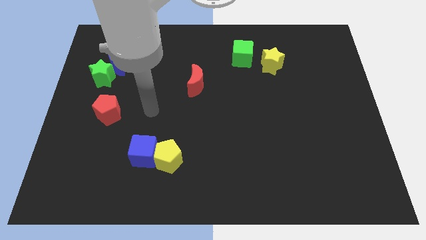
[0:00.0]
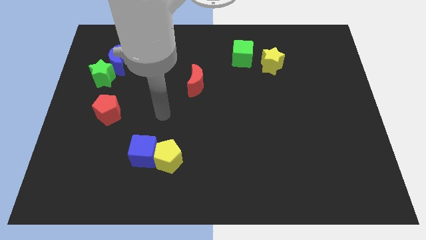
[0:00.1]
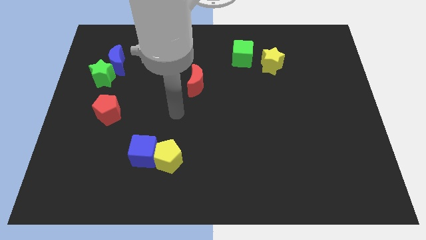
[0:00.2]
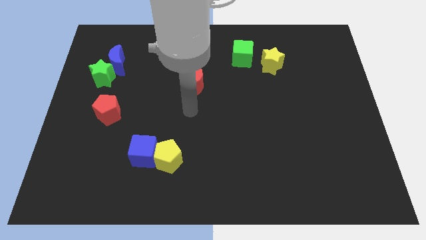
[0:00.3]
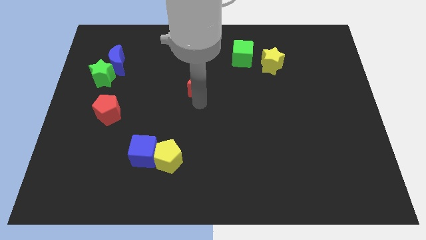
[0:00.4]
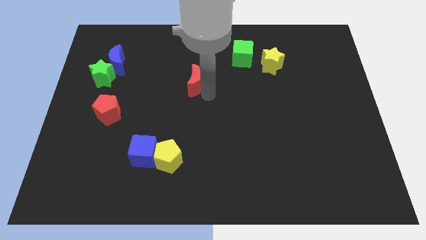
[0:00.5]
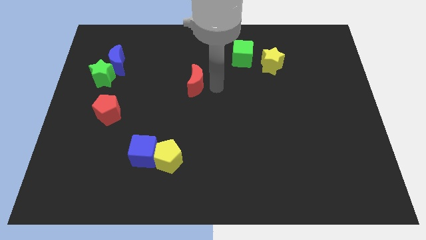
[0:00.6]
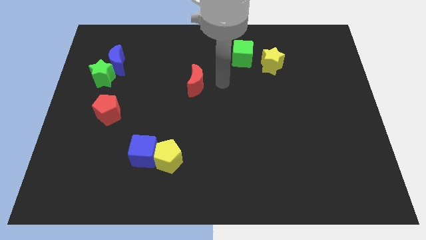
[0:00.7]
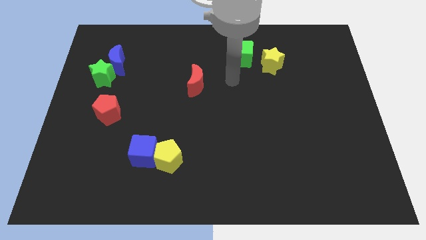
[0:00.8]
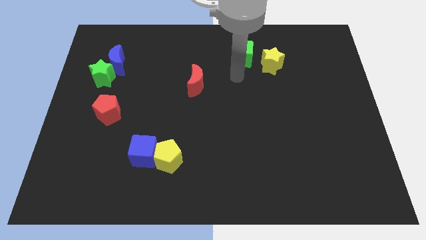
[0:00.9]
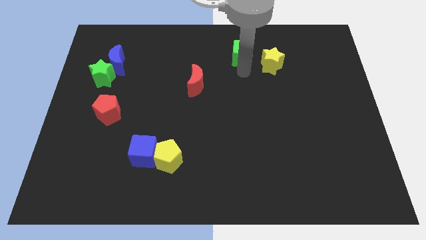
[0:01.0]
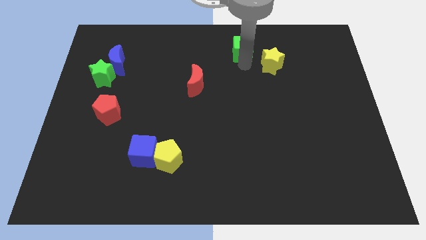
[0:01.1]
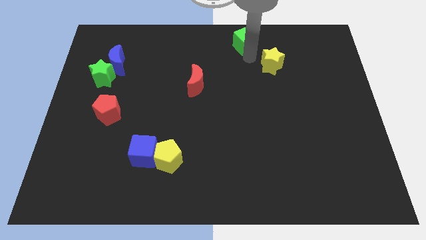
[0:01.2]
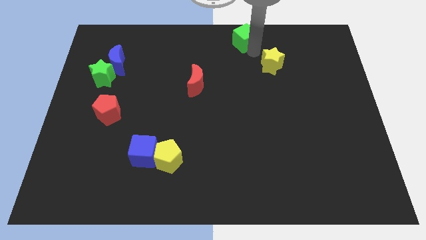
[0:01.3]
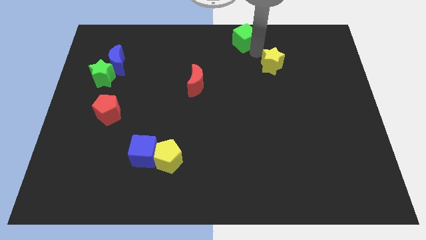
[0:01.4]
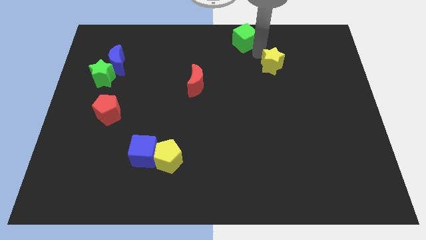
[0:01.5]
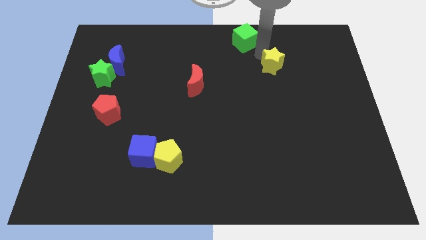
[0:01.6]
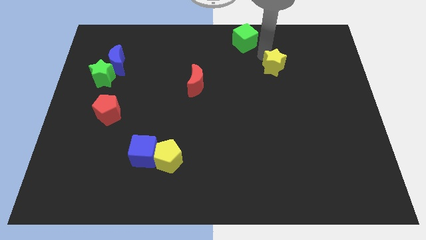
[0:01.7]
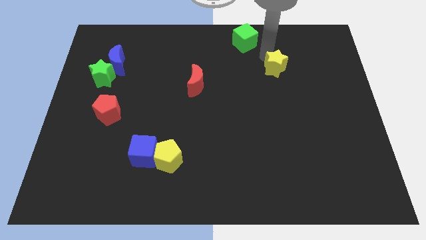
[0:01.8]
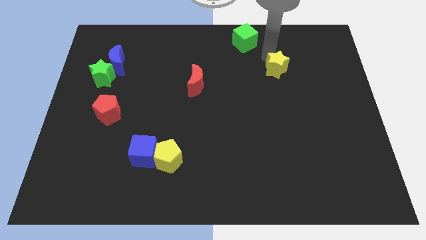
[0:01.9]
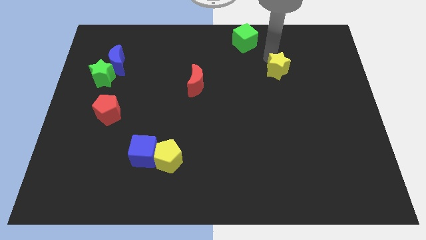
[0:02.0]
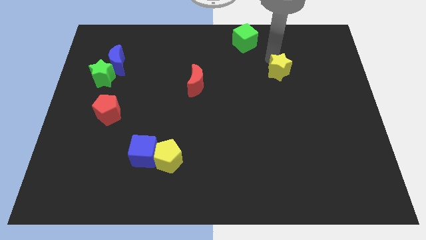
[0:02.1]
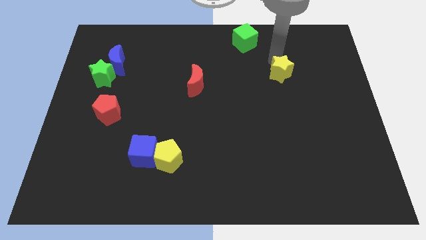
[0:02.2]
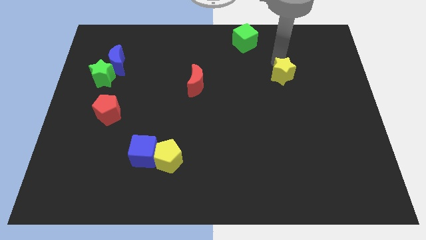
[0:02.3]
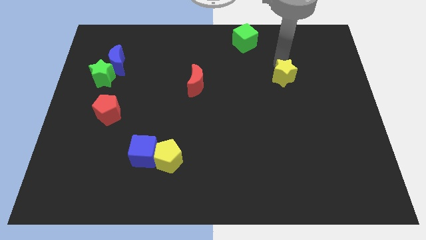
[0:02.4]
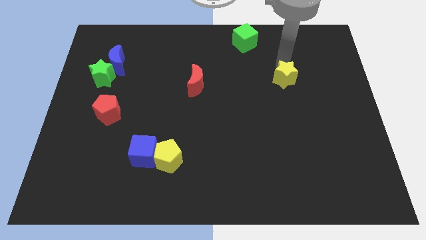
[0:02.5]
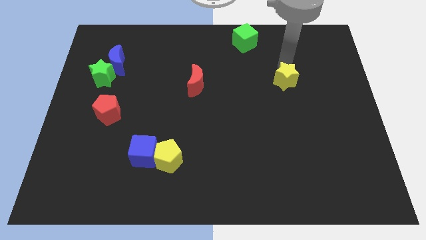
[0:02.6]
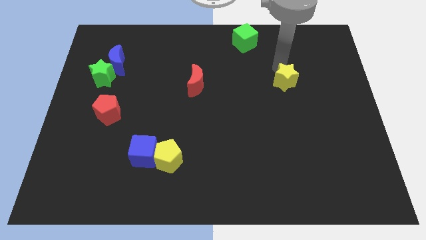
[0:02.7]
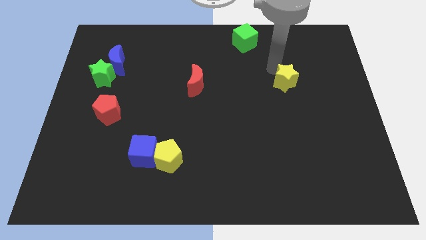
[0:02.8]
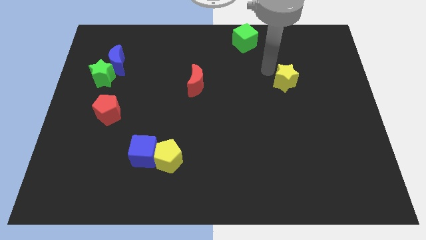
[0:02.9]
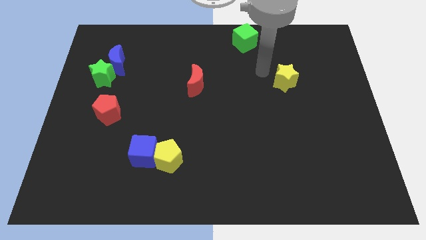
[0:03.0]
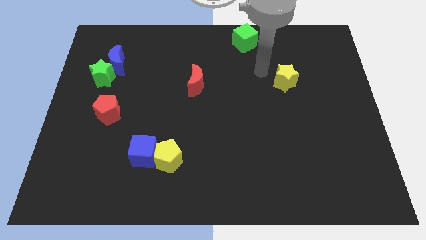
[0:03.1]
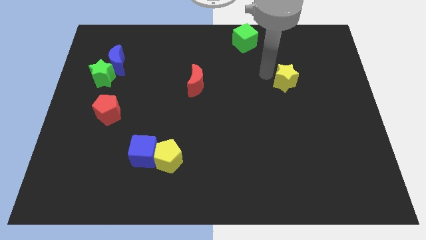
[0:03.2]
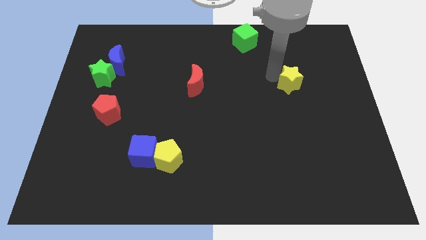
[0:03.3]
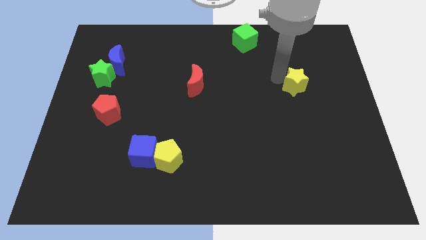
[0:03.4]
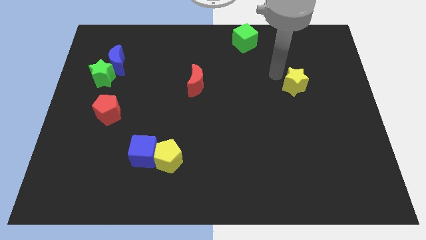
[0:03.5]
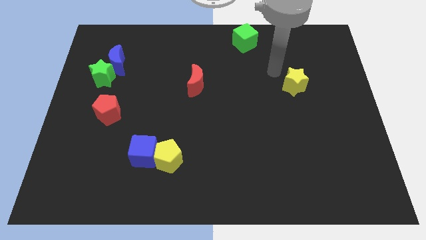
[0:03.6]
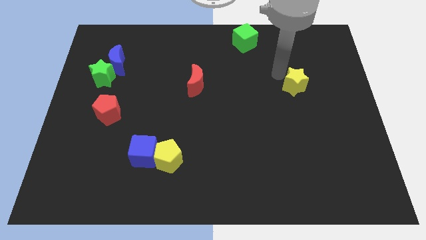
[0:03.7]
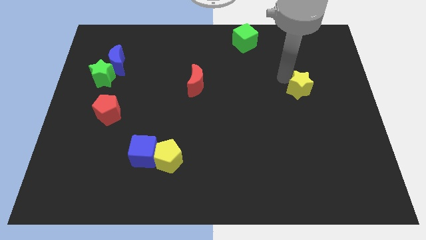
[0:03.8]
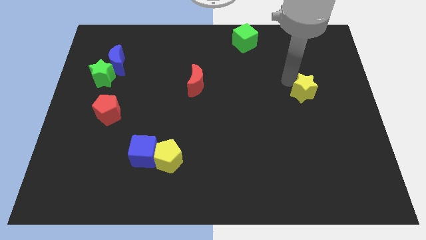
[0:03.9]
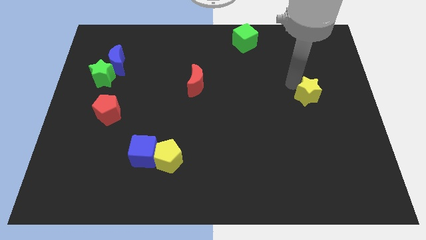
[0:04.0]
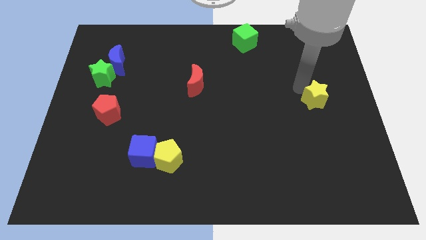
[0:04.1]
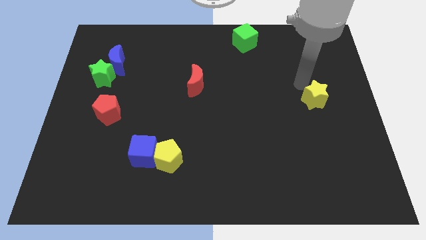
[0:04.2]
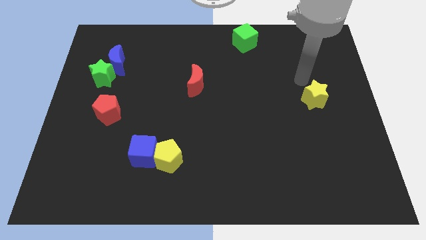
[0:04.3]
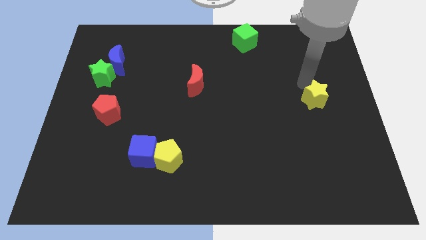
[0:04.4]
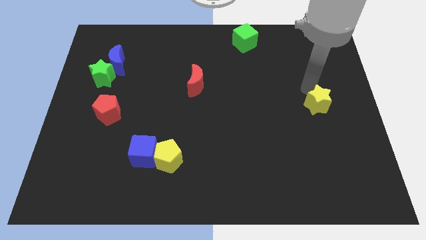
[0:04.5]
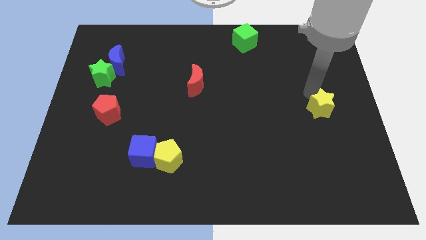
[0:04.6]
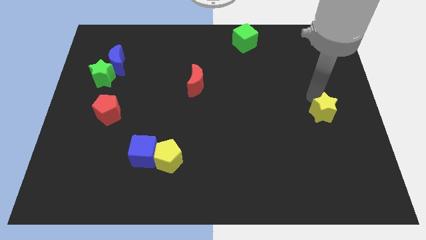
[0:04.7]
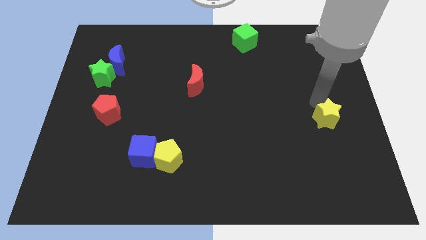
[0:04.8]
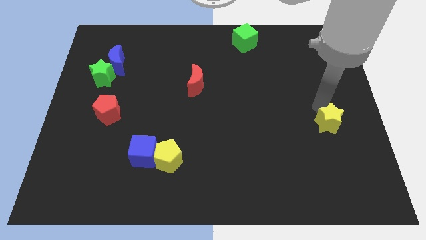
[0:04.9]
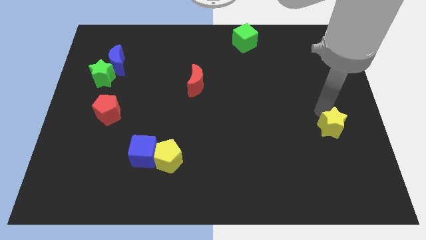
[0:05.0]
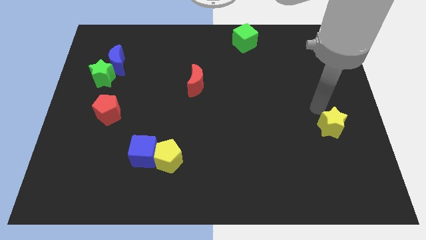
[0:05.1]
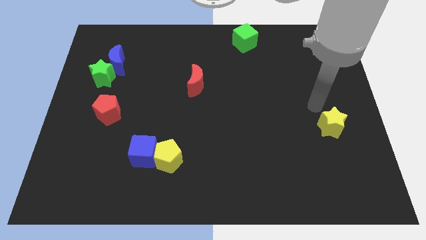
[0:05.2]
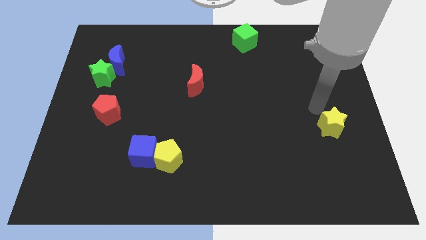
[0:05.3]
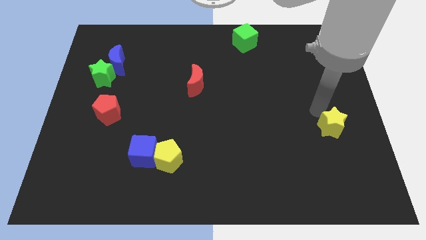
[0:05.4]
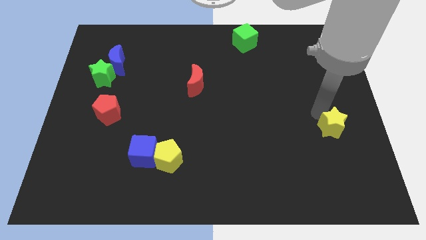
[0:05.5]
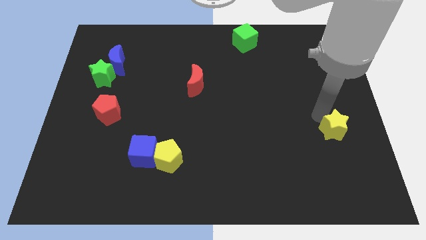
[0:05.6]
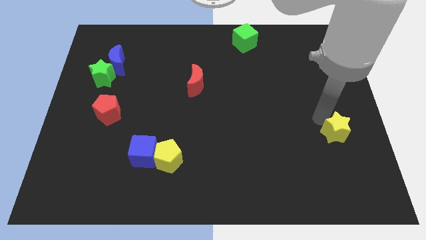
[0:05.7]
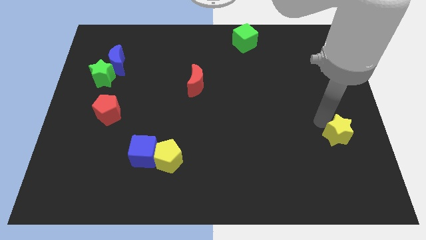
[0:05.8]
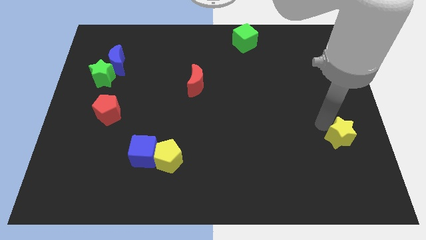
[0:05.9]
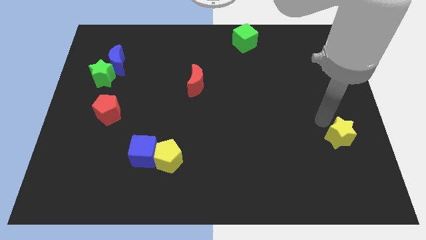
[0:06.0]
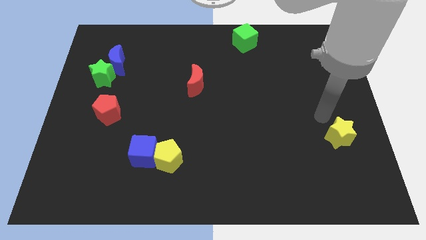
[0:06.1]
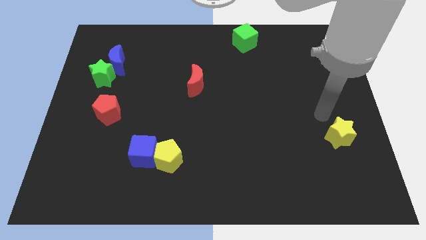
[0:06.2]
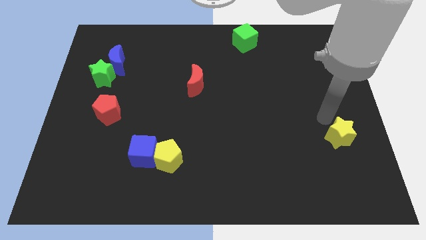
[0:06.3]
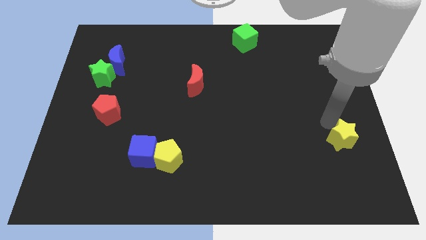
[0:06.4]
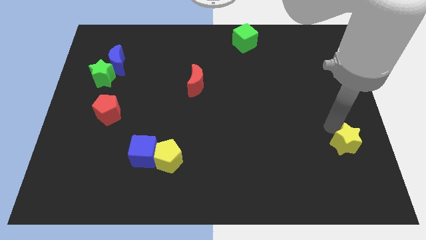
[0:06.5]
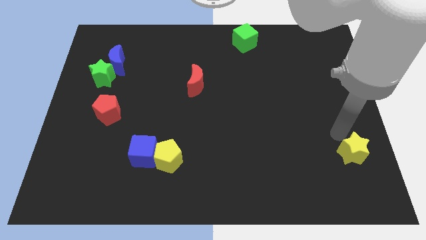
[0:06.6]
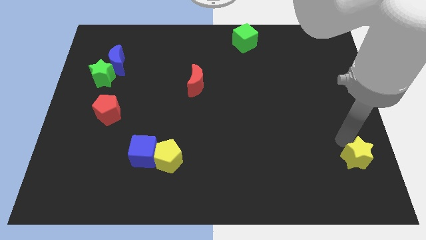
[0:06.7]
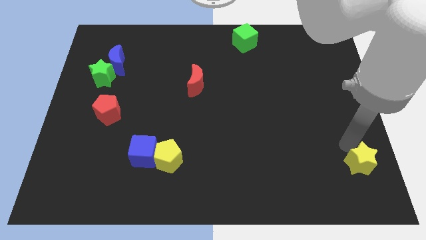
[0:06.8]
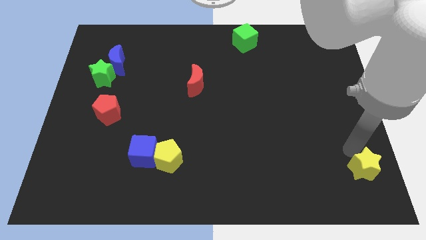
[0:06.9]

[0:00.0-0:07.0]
push the yellow star to the bottom right

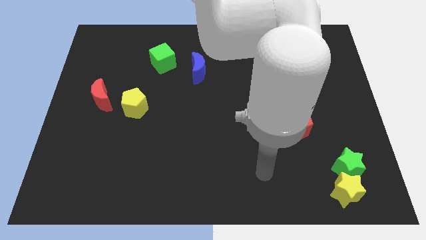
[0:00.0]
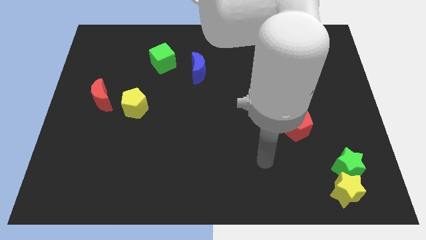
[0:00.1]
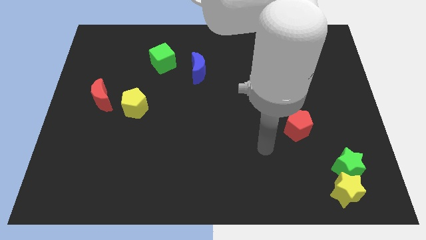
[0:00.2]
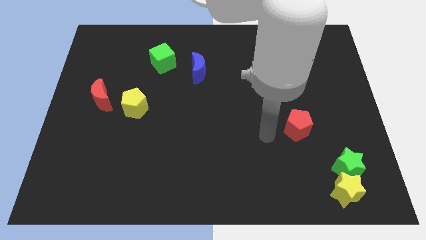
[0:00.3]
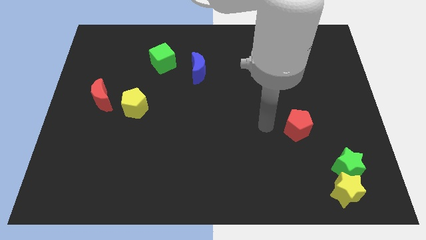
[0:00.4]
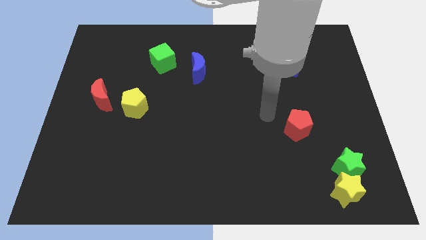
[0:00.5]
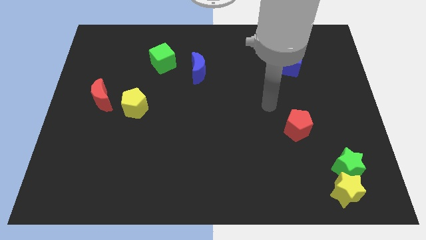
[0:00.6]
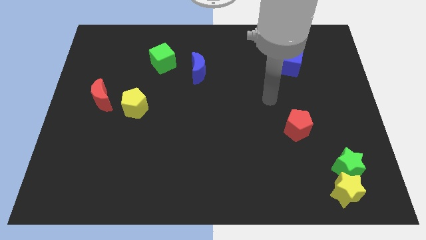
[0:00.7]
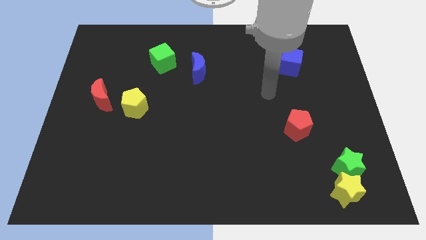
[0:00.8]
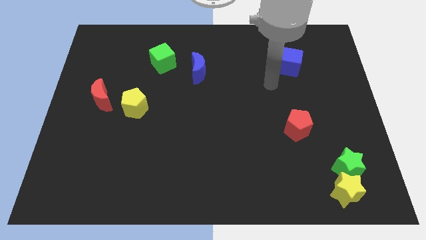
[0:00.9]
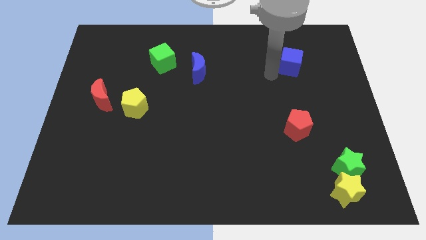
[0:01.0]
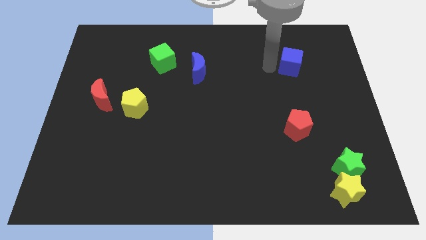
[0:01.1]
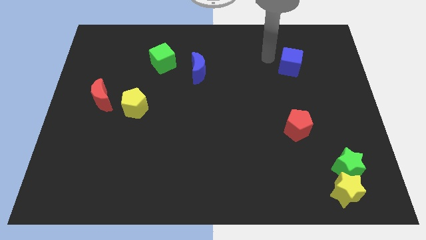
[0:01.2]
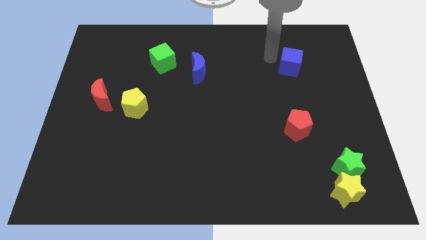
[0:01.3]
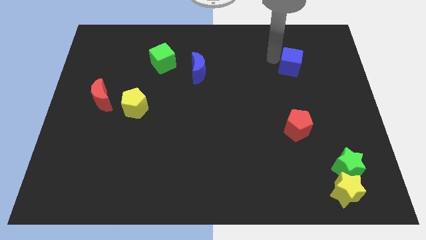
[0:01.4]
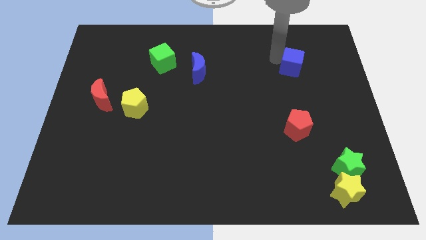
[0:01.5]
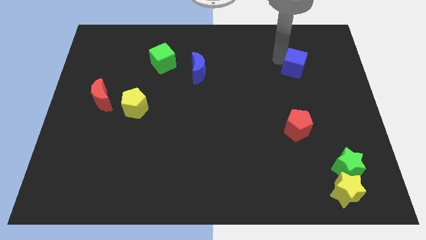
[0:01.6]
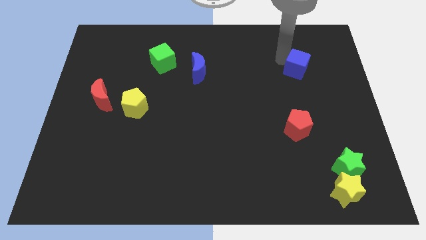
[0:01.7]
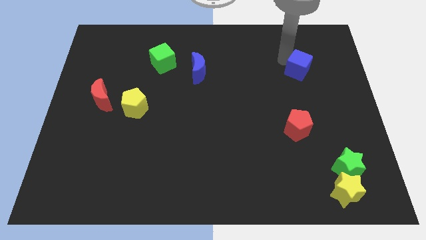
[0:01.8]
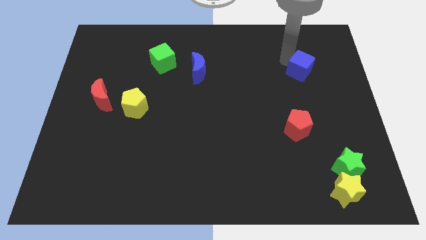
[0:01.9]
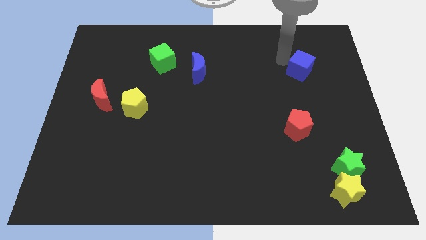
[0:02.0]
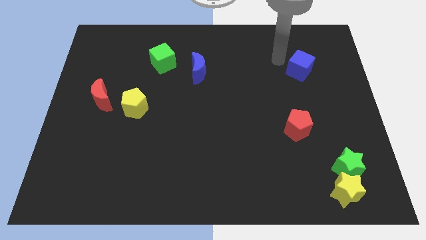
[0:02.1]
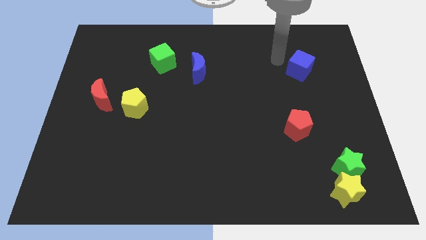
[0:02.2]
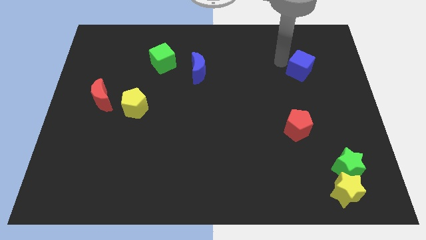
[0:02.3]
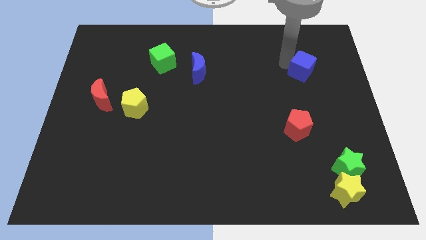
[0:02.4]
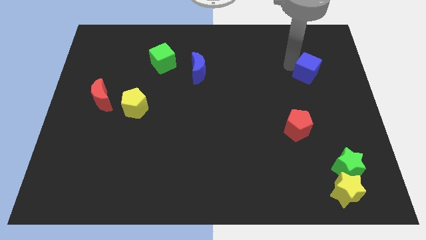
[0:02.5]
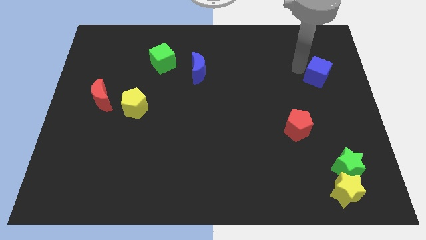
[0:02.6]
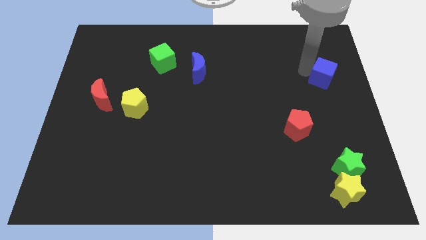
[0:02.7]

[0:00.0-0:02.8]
move the blue cube to the center right
